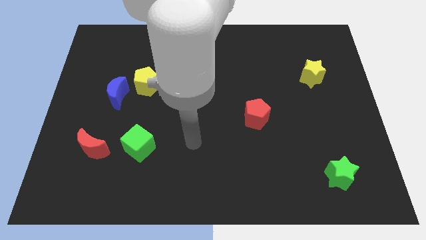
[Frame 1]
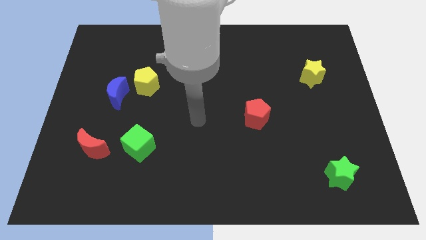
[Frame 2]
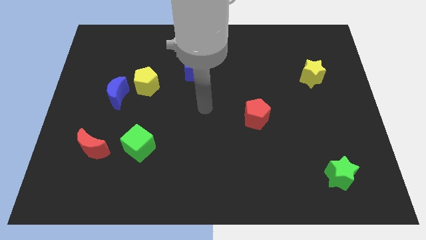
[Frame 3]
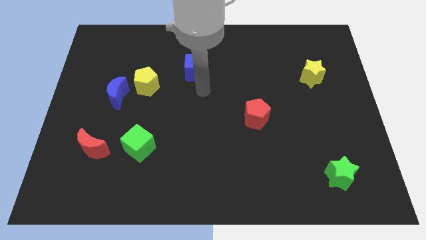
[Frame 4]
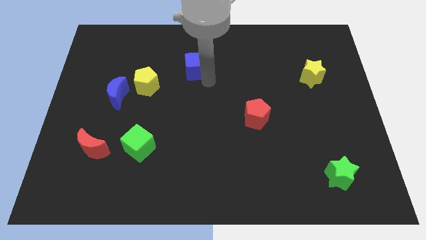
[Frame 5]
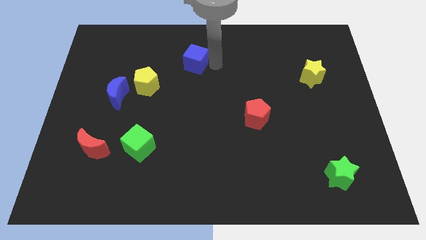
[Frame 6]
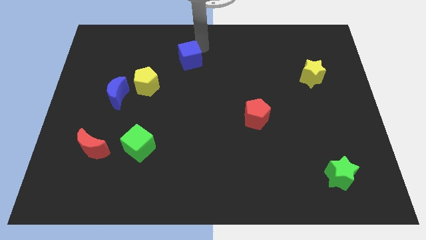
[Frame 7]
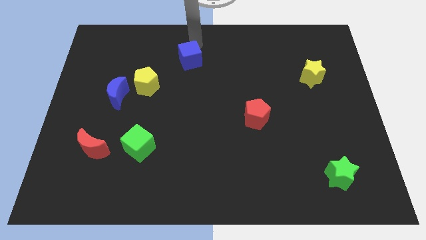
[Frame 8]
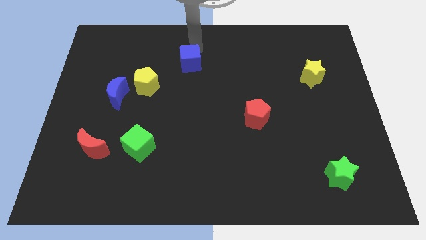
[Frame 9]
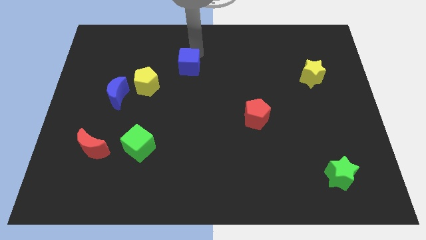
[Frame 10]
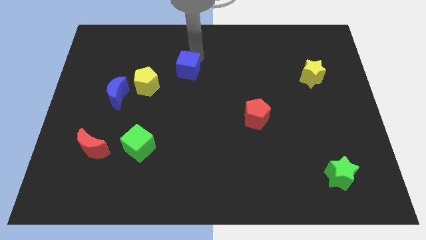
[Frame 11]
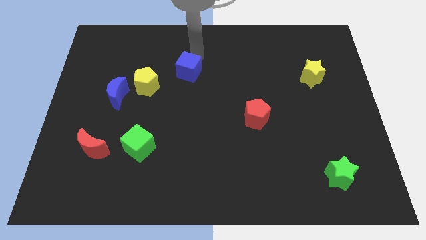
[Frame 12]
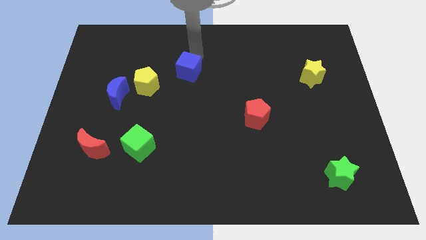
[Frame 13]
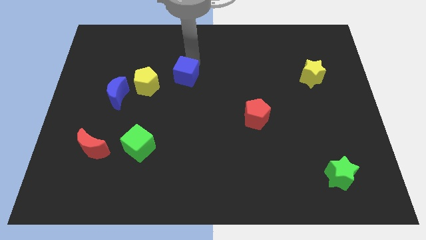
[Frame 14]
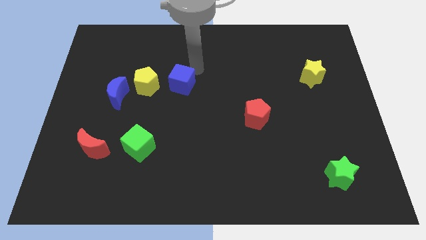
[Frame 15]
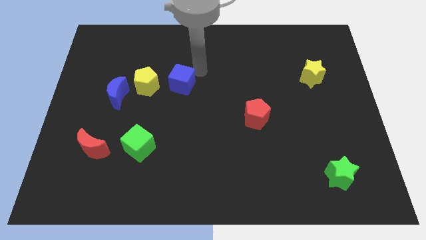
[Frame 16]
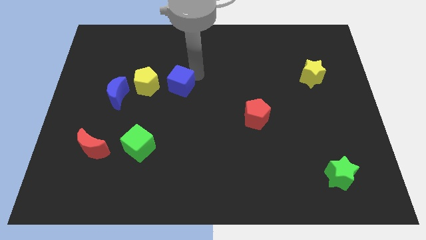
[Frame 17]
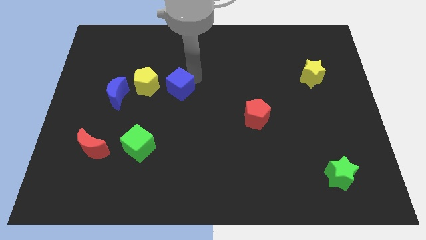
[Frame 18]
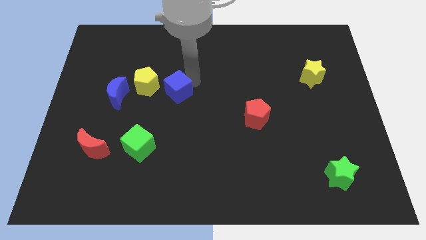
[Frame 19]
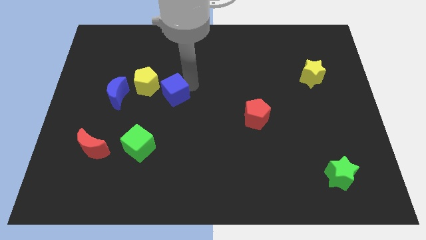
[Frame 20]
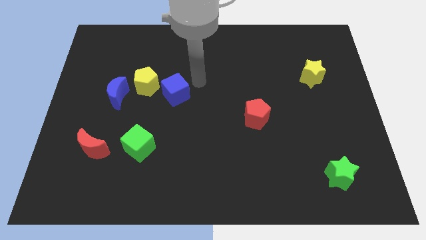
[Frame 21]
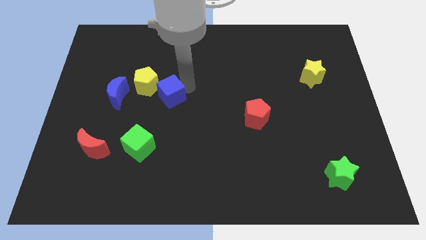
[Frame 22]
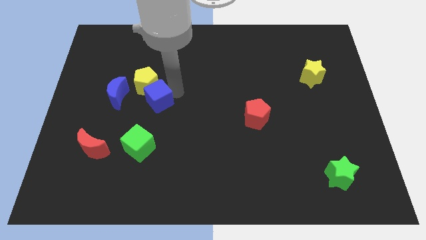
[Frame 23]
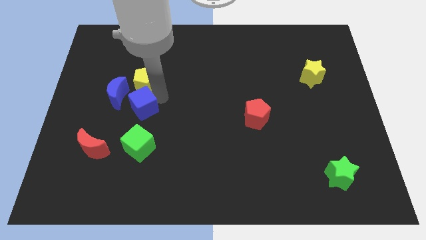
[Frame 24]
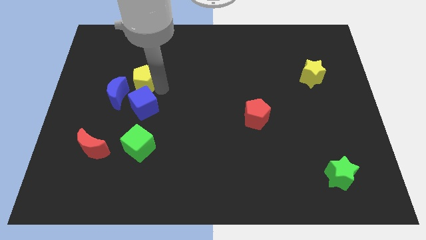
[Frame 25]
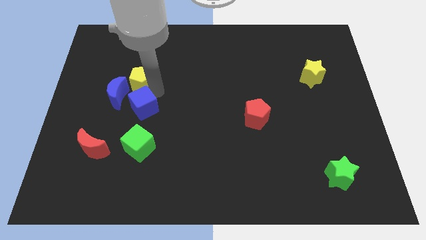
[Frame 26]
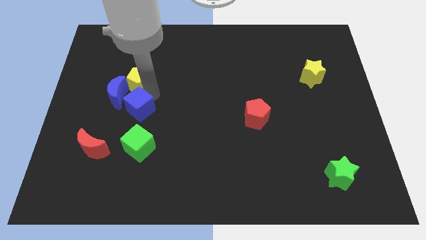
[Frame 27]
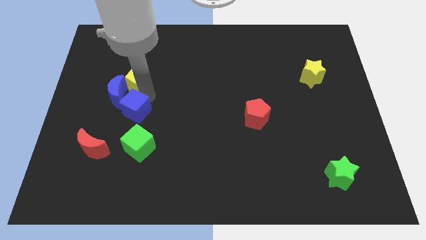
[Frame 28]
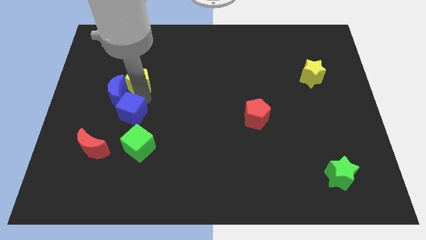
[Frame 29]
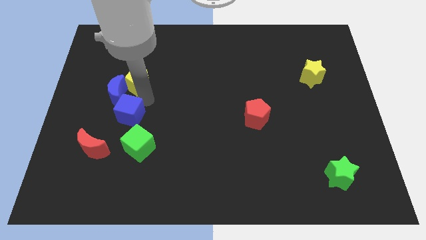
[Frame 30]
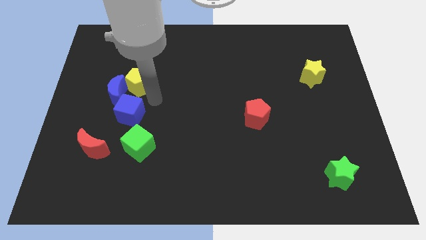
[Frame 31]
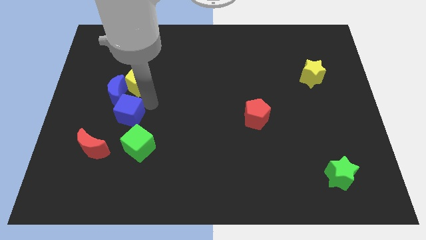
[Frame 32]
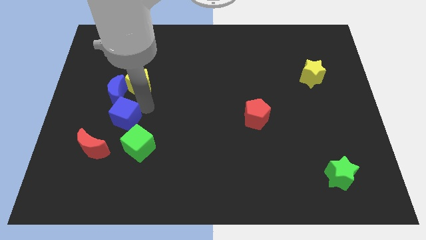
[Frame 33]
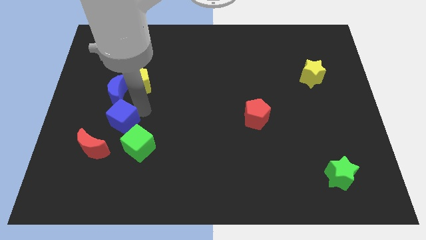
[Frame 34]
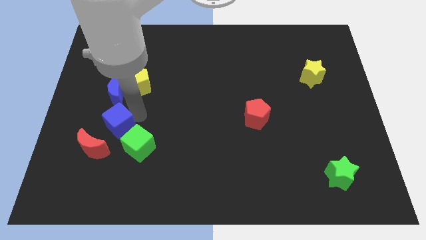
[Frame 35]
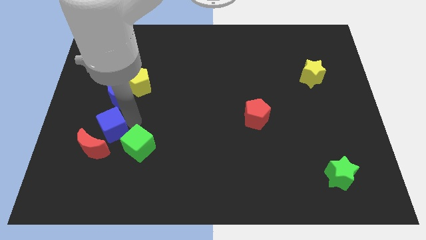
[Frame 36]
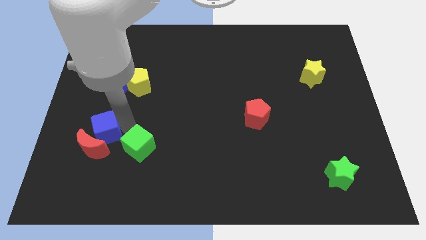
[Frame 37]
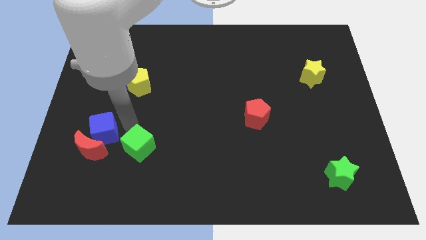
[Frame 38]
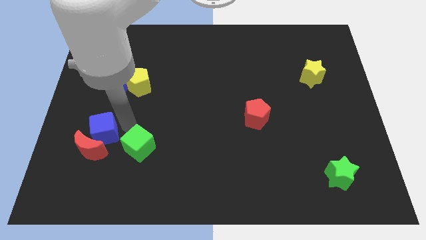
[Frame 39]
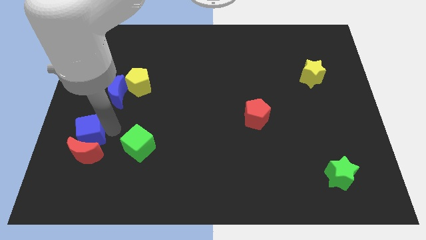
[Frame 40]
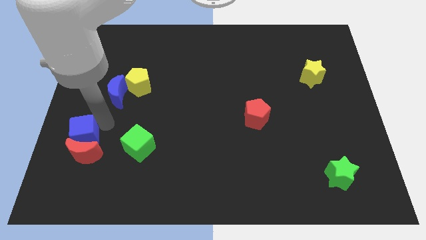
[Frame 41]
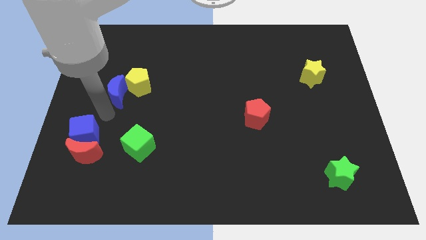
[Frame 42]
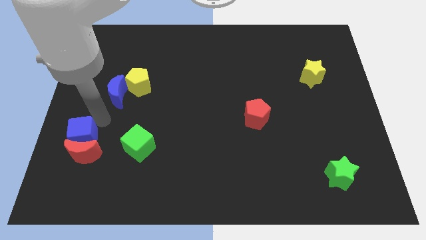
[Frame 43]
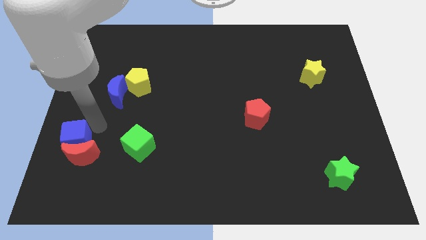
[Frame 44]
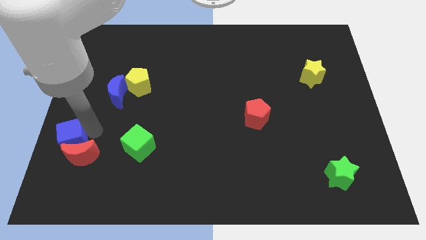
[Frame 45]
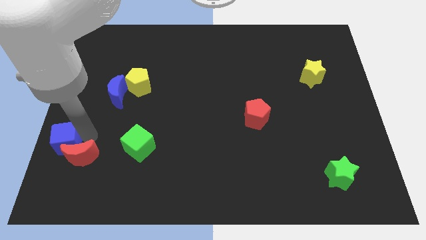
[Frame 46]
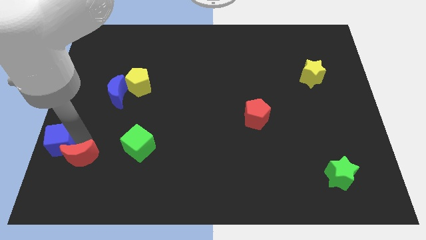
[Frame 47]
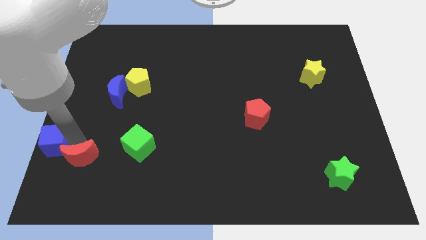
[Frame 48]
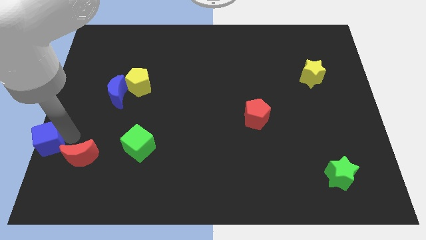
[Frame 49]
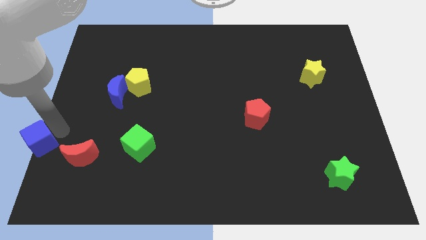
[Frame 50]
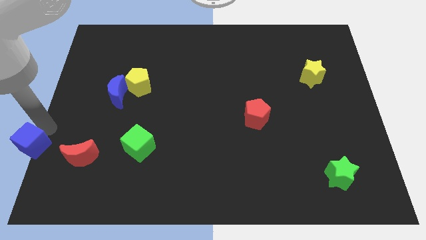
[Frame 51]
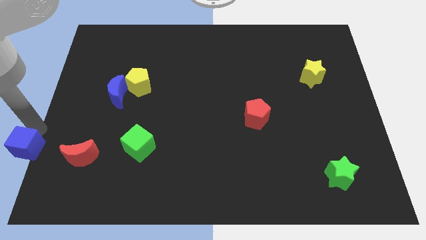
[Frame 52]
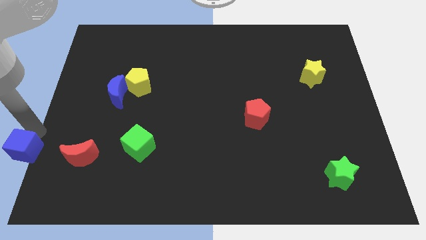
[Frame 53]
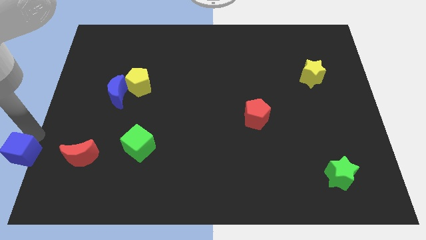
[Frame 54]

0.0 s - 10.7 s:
put the blue cube to the bottom left corner
